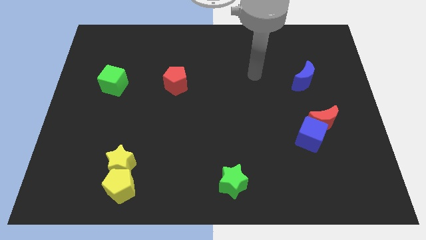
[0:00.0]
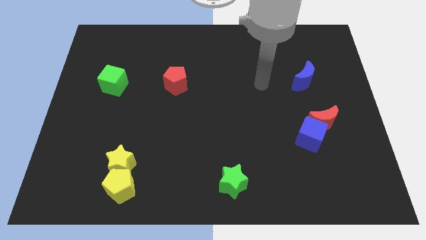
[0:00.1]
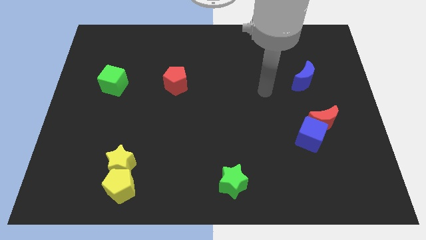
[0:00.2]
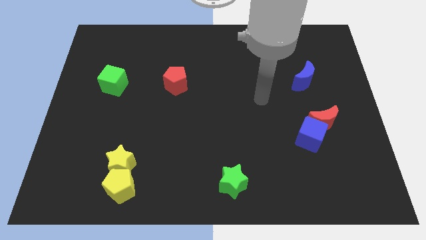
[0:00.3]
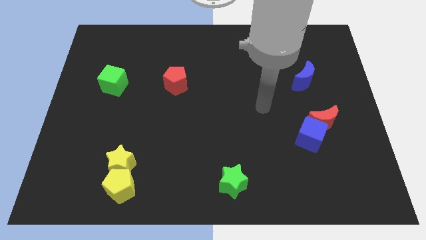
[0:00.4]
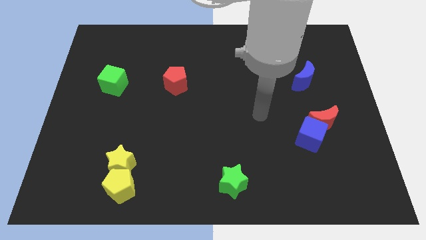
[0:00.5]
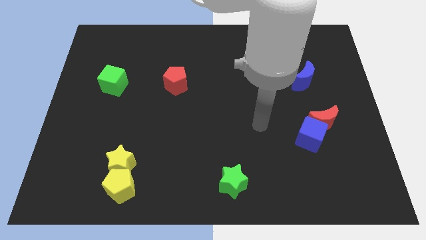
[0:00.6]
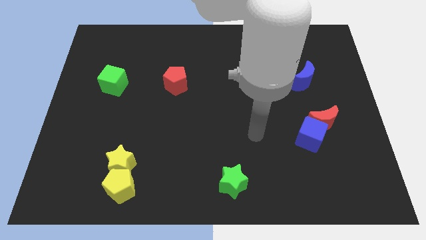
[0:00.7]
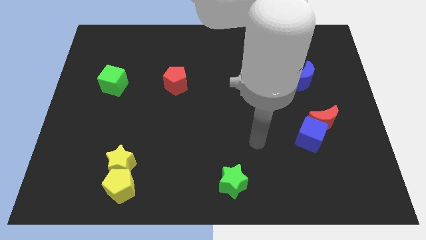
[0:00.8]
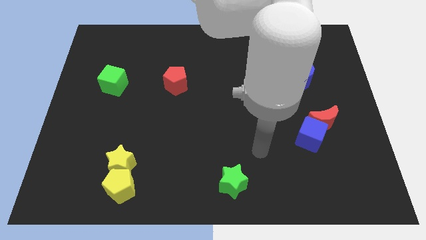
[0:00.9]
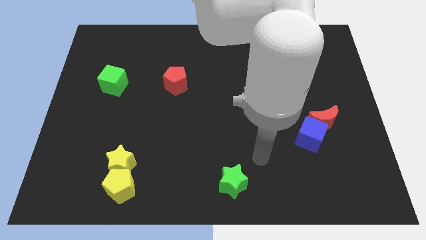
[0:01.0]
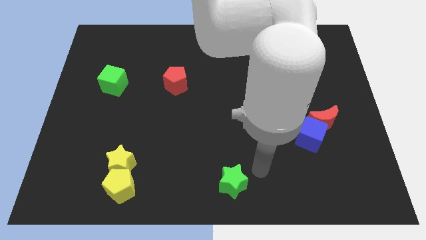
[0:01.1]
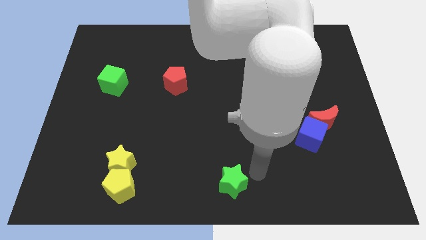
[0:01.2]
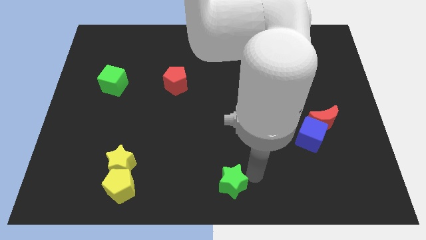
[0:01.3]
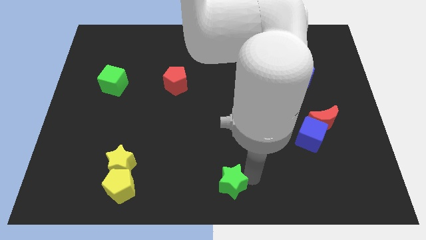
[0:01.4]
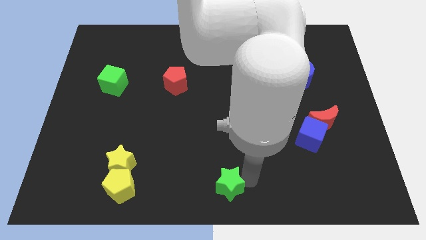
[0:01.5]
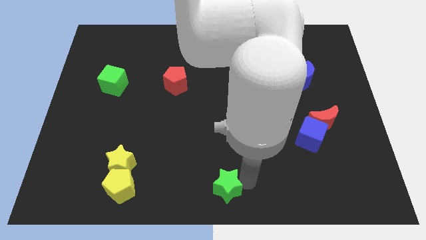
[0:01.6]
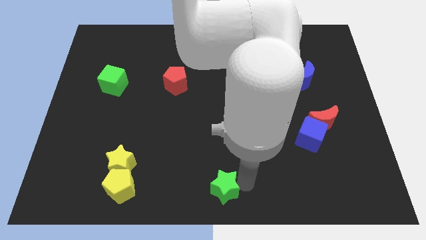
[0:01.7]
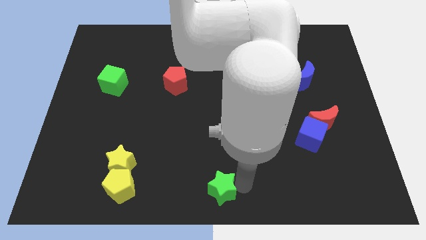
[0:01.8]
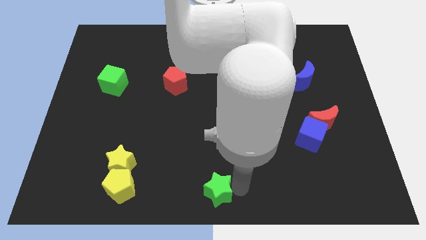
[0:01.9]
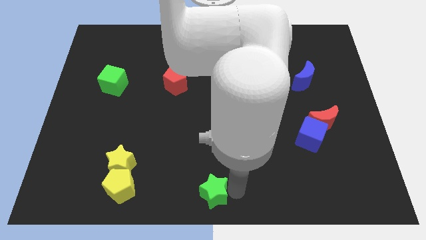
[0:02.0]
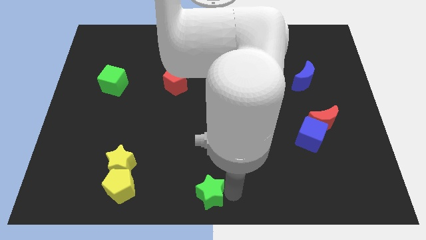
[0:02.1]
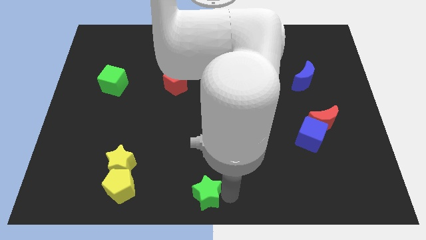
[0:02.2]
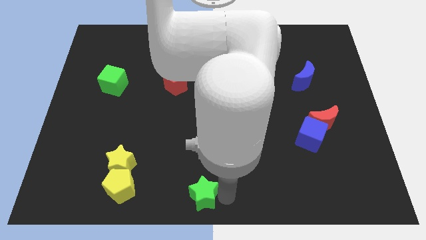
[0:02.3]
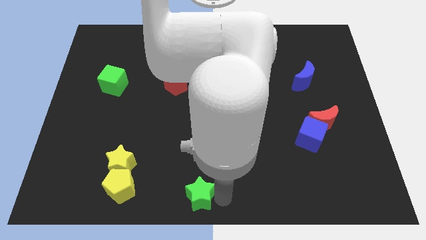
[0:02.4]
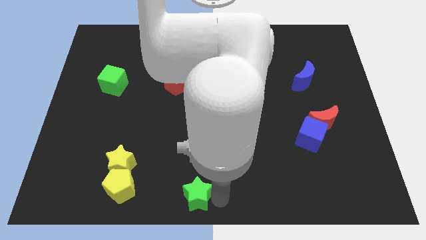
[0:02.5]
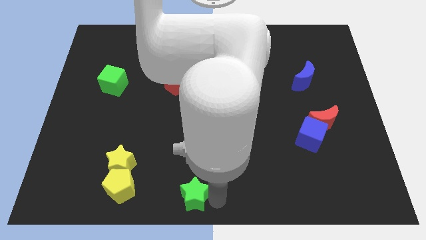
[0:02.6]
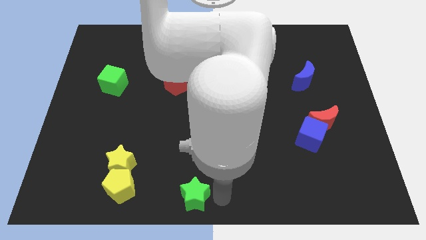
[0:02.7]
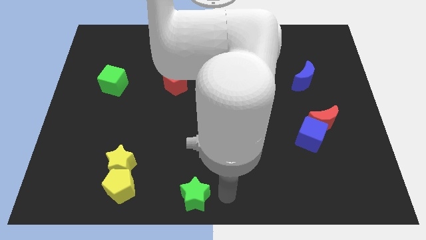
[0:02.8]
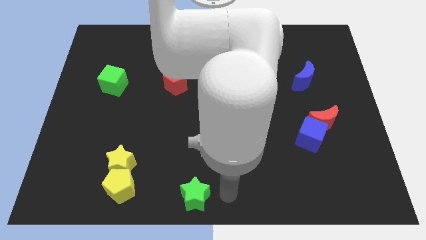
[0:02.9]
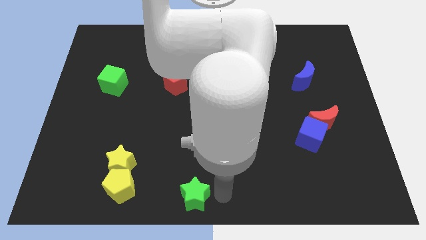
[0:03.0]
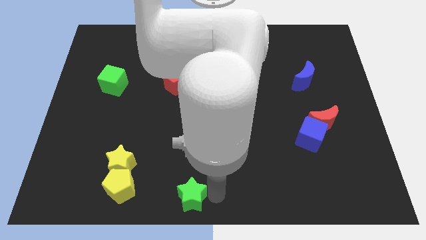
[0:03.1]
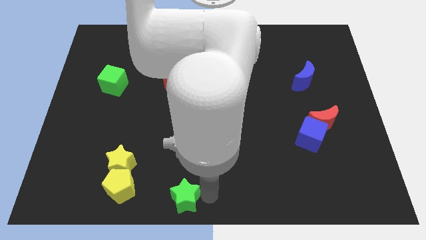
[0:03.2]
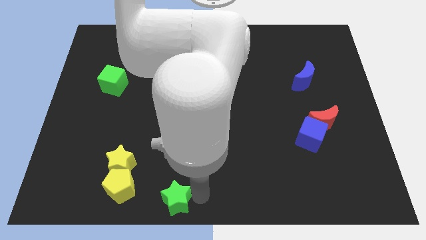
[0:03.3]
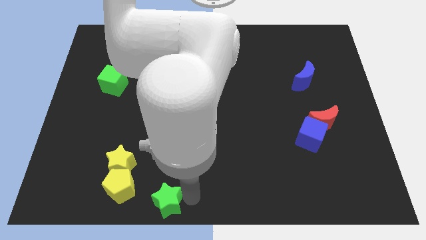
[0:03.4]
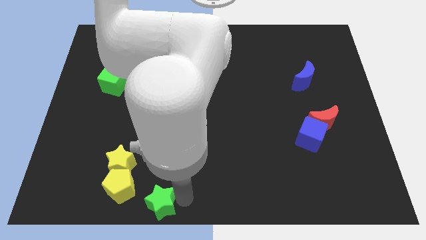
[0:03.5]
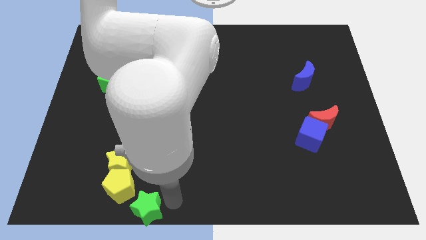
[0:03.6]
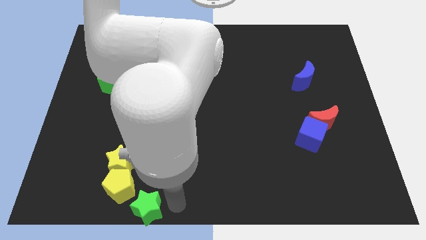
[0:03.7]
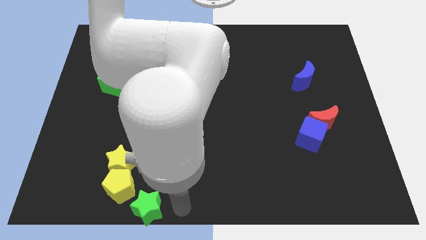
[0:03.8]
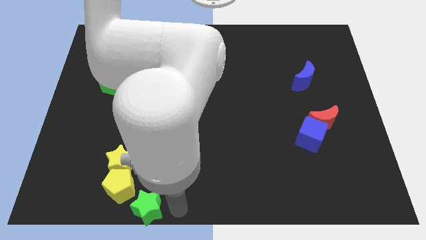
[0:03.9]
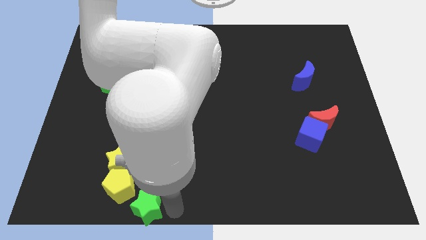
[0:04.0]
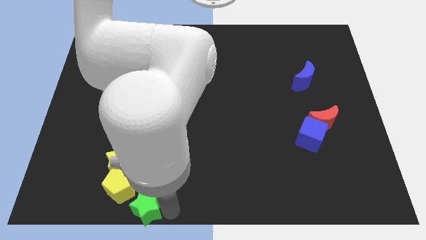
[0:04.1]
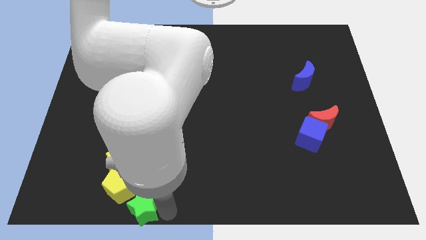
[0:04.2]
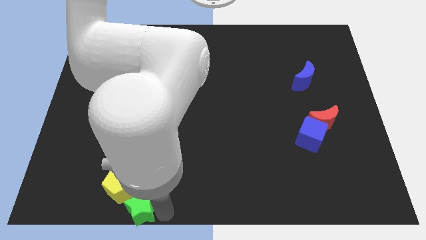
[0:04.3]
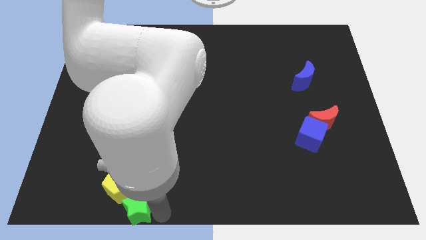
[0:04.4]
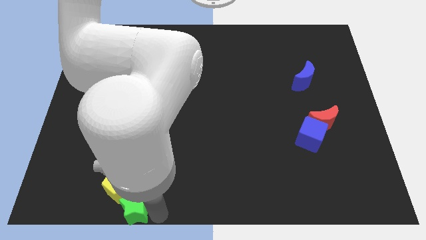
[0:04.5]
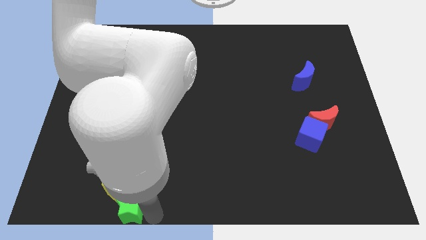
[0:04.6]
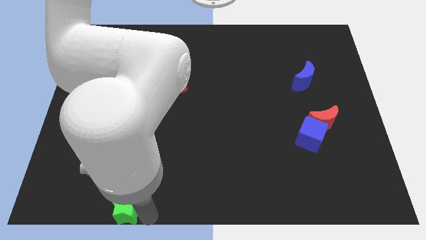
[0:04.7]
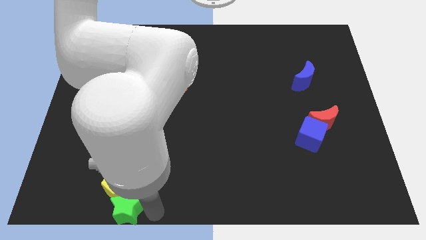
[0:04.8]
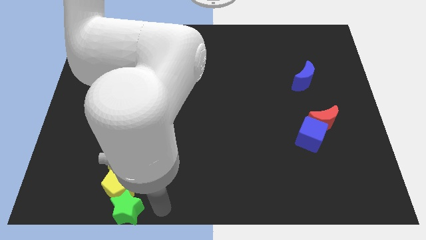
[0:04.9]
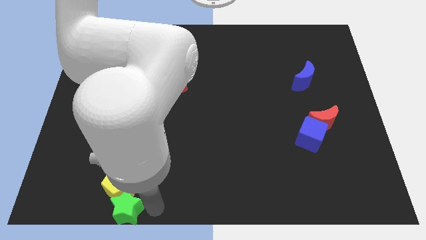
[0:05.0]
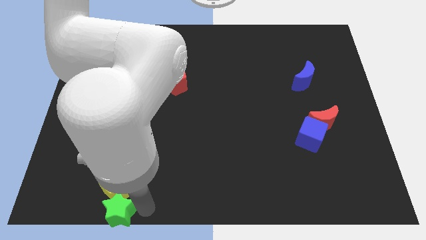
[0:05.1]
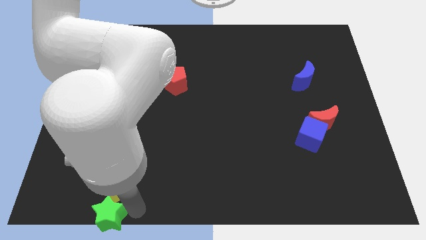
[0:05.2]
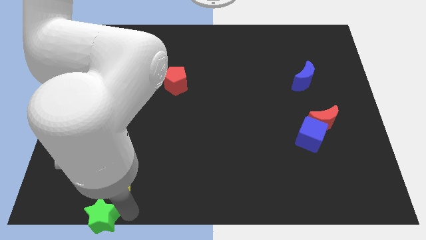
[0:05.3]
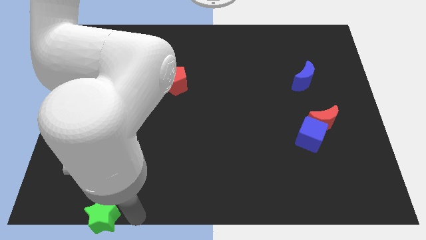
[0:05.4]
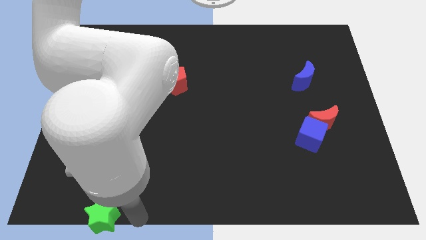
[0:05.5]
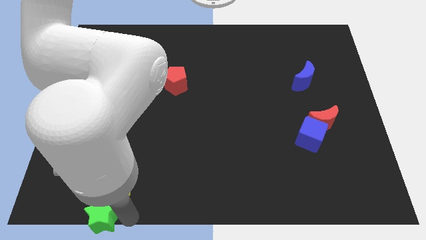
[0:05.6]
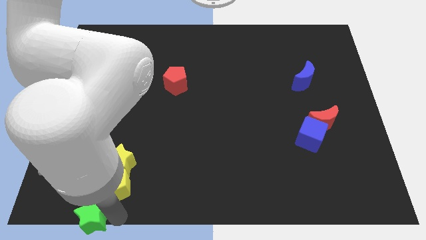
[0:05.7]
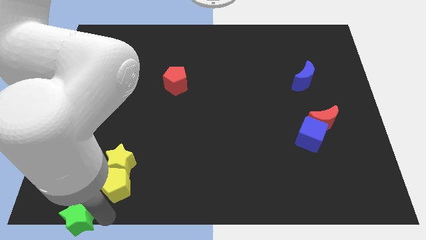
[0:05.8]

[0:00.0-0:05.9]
push the green star to the bottom left of the board

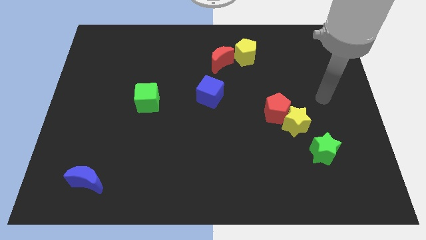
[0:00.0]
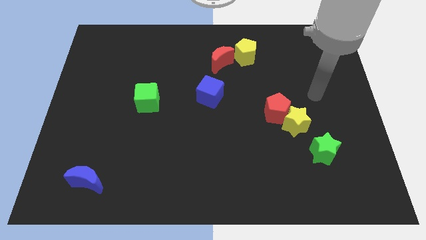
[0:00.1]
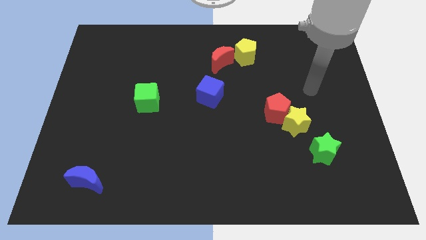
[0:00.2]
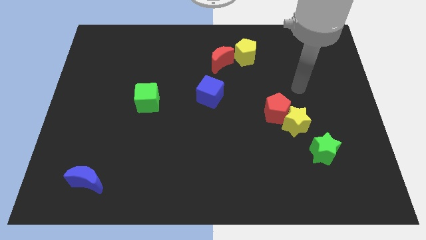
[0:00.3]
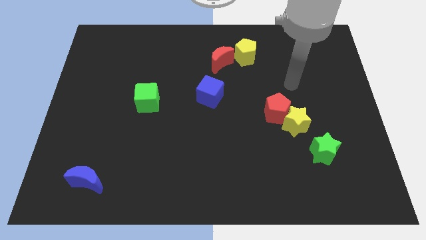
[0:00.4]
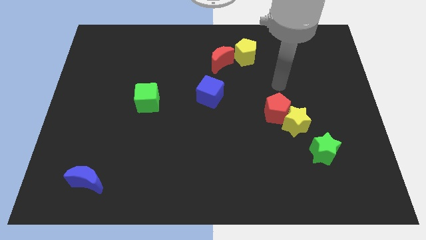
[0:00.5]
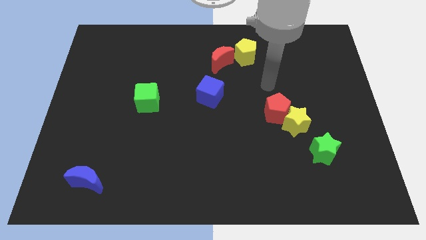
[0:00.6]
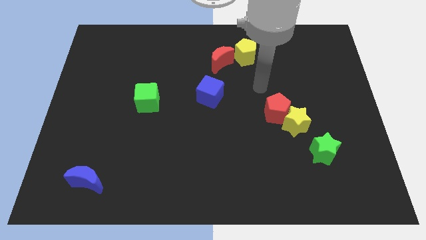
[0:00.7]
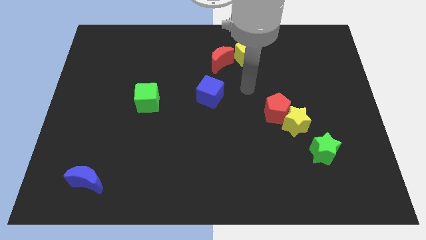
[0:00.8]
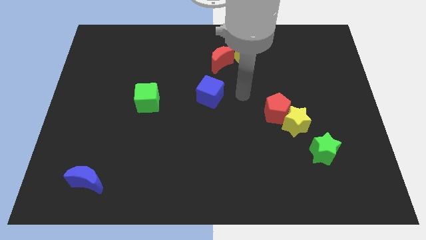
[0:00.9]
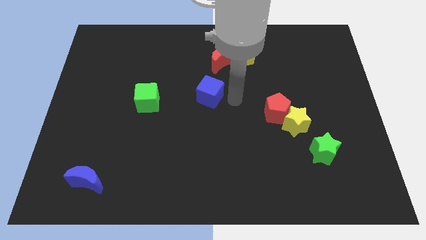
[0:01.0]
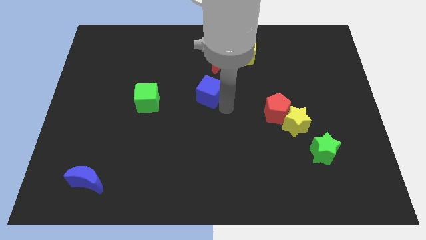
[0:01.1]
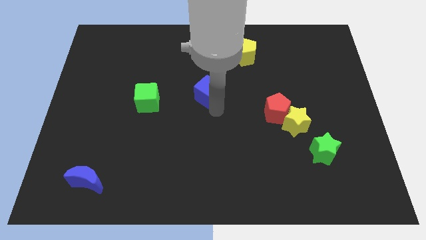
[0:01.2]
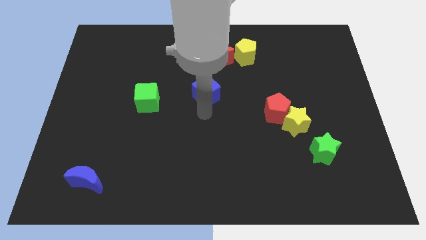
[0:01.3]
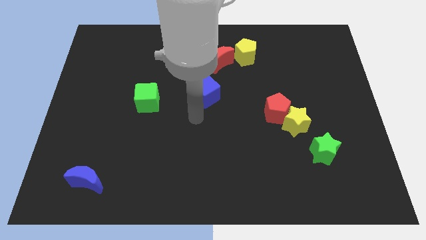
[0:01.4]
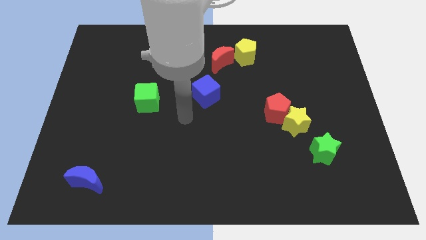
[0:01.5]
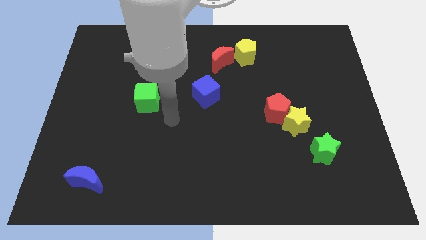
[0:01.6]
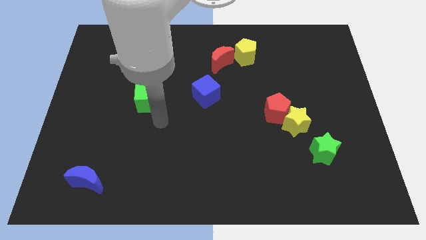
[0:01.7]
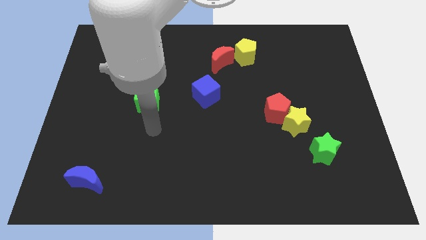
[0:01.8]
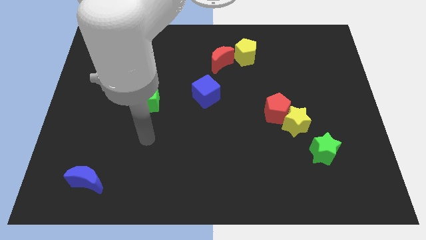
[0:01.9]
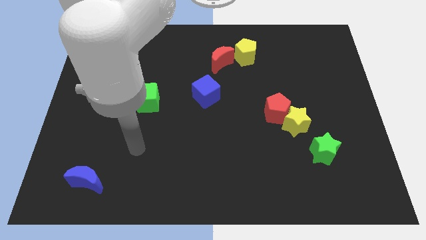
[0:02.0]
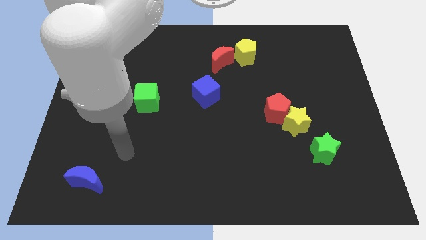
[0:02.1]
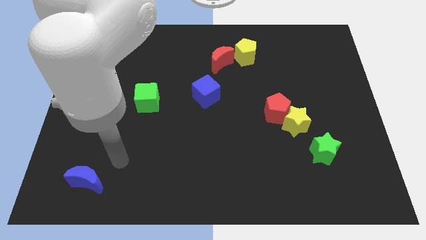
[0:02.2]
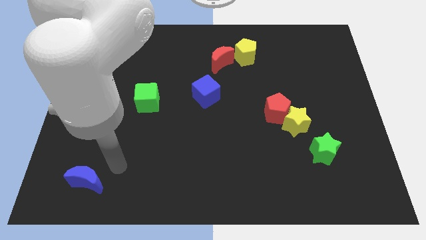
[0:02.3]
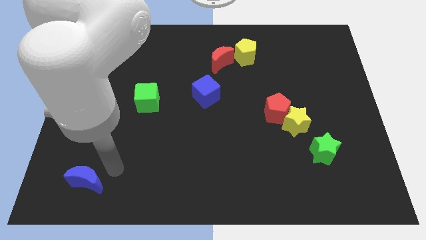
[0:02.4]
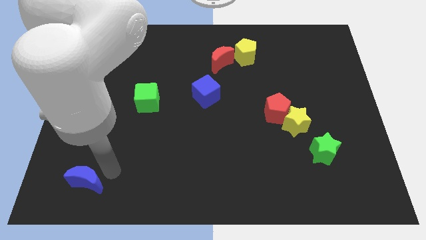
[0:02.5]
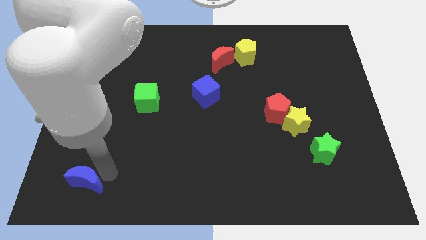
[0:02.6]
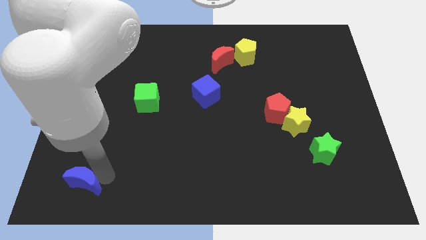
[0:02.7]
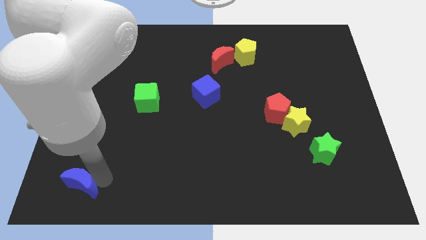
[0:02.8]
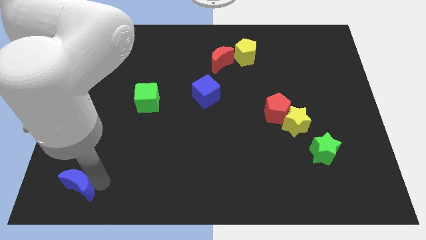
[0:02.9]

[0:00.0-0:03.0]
put the blue moon to the lower left corner
